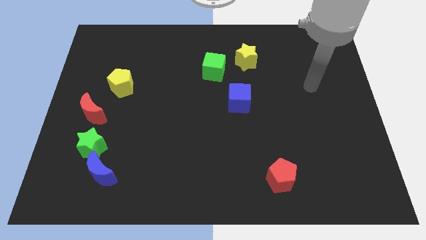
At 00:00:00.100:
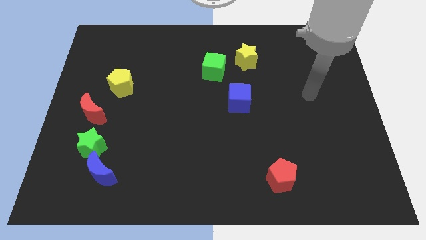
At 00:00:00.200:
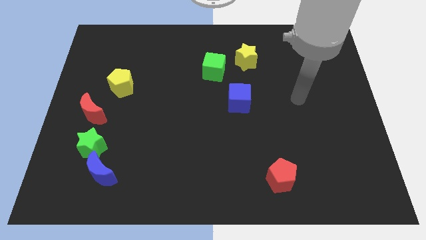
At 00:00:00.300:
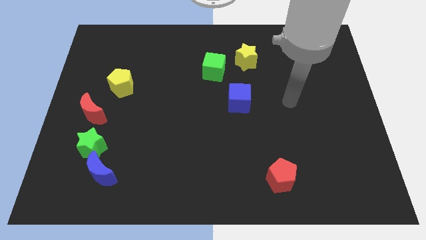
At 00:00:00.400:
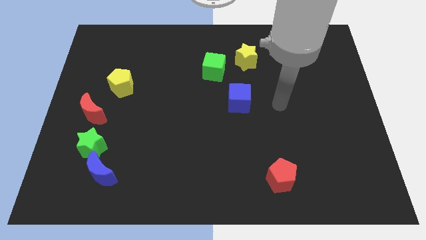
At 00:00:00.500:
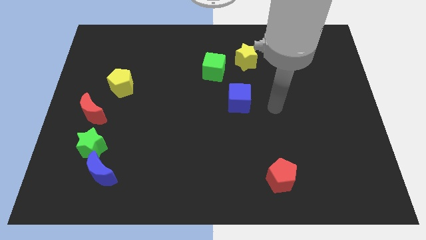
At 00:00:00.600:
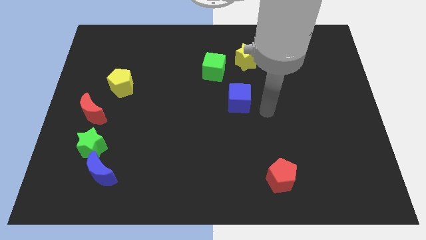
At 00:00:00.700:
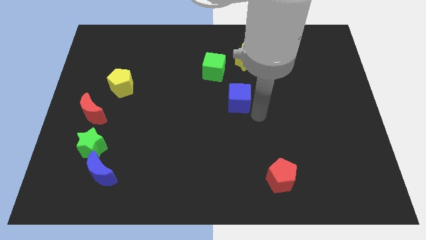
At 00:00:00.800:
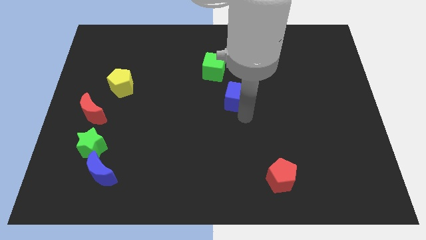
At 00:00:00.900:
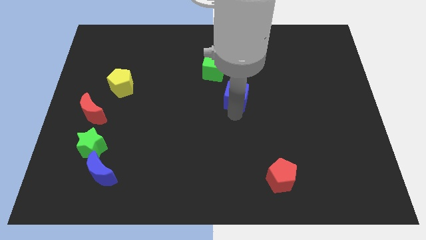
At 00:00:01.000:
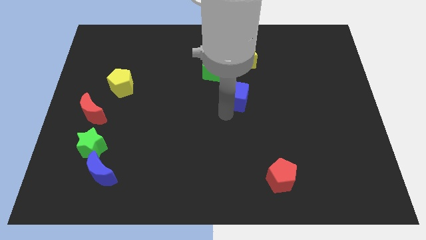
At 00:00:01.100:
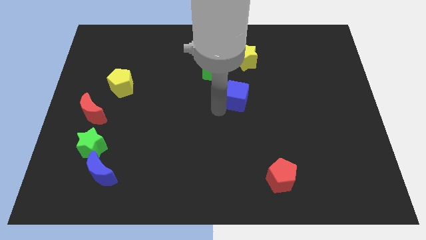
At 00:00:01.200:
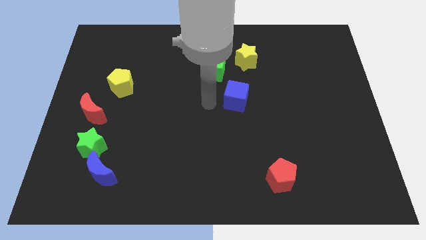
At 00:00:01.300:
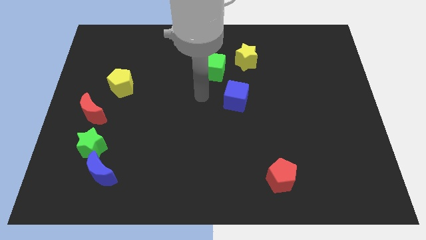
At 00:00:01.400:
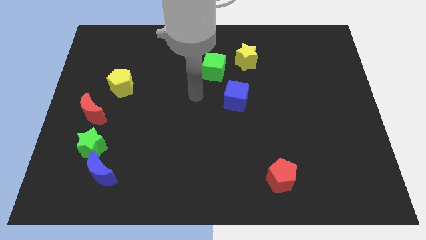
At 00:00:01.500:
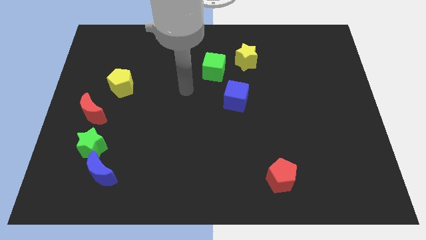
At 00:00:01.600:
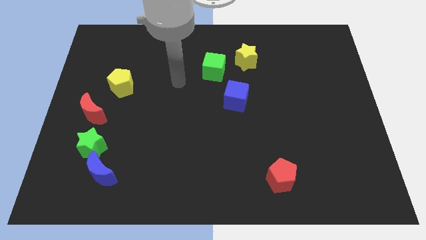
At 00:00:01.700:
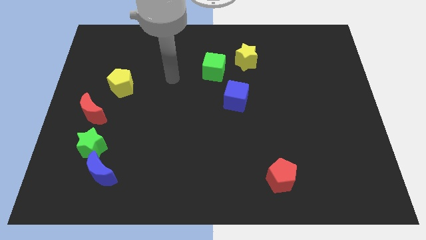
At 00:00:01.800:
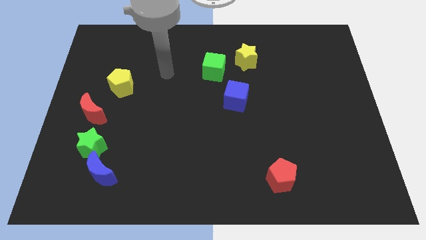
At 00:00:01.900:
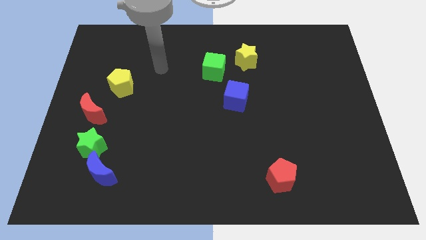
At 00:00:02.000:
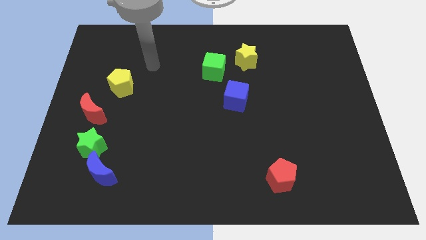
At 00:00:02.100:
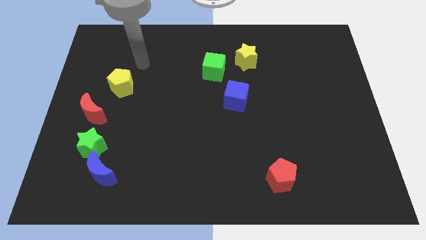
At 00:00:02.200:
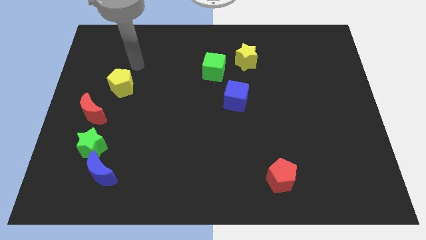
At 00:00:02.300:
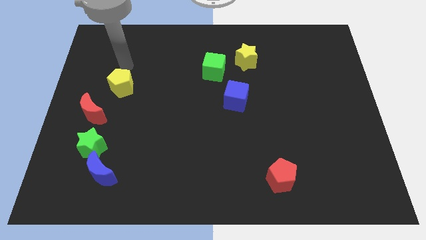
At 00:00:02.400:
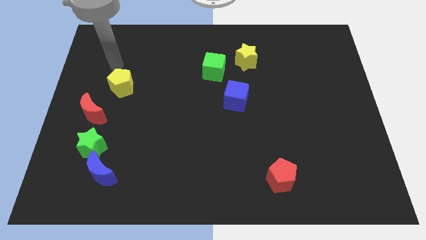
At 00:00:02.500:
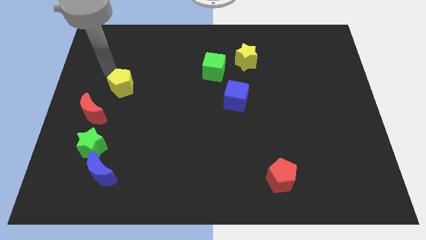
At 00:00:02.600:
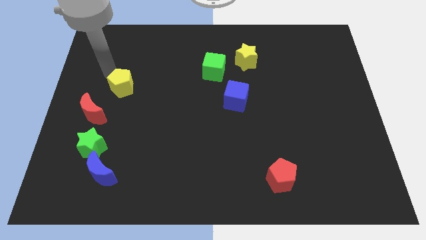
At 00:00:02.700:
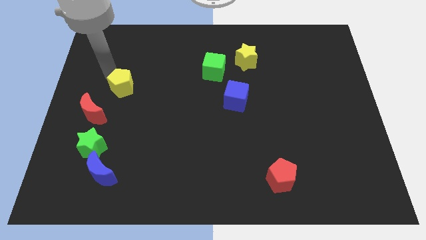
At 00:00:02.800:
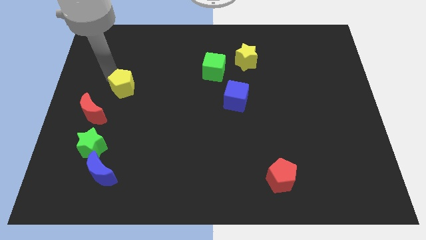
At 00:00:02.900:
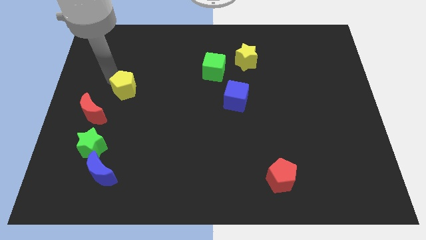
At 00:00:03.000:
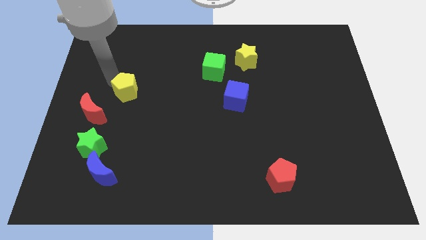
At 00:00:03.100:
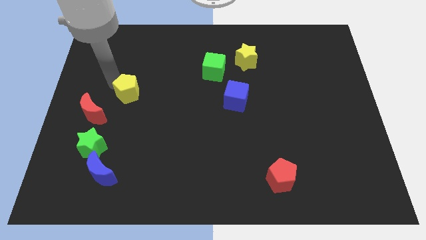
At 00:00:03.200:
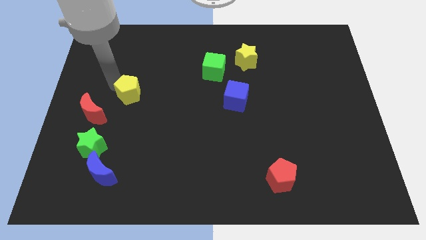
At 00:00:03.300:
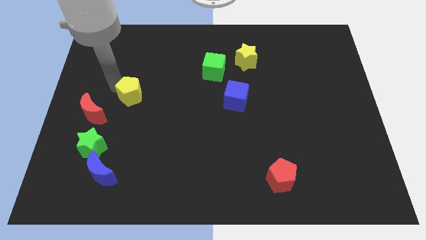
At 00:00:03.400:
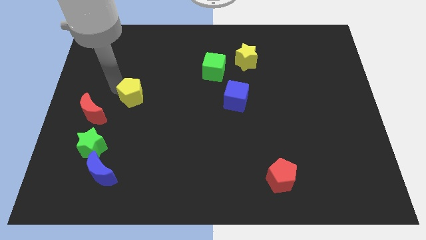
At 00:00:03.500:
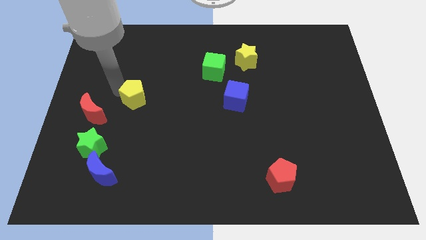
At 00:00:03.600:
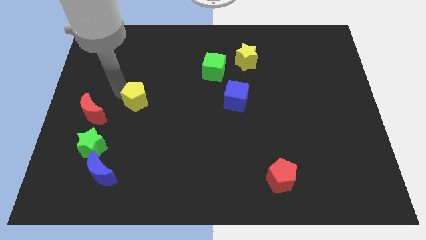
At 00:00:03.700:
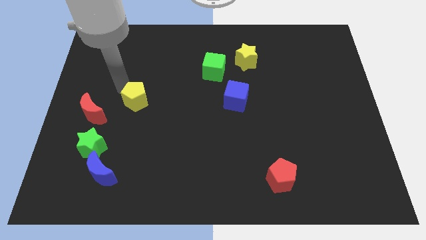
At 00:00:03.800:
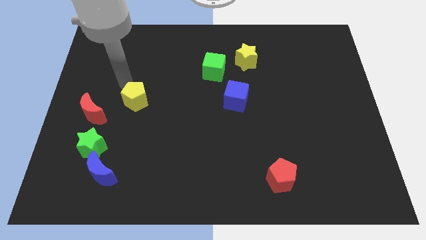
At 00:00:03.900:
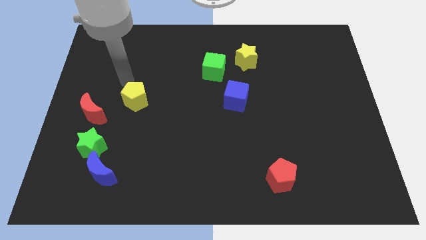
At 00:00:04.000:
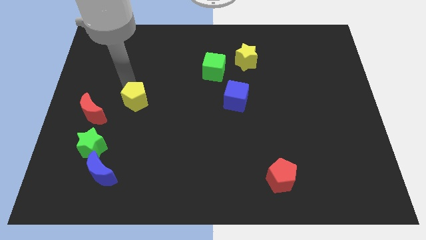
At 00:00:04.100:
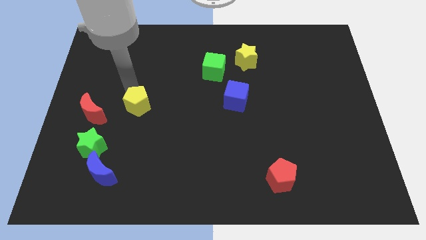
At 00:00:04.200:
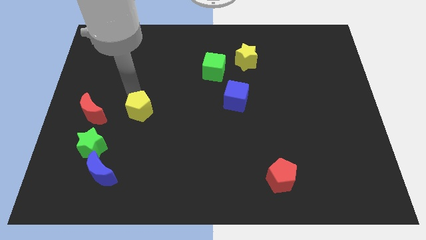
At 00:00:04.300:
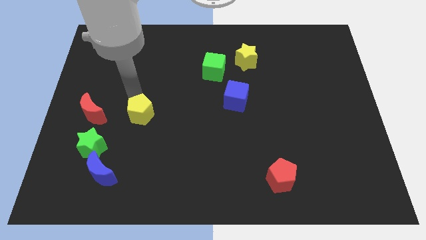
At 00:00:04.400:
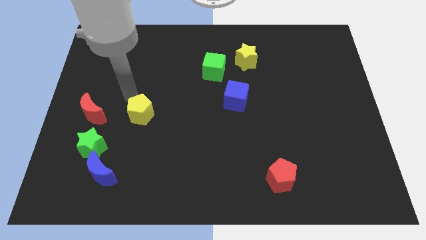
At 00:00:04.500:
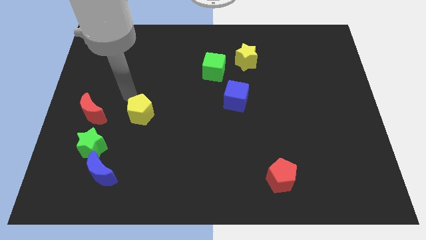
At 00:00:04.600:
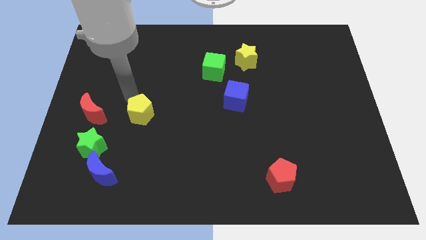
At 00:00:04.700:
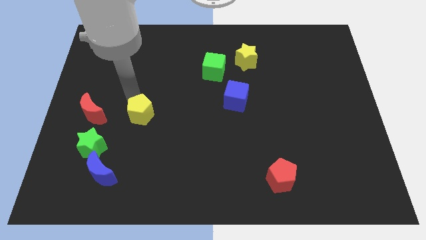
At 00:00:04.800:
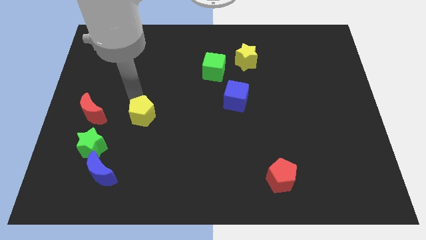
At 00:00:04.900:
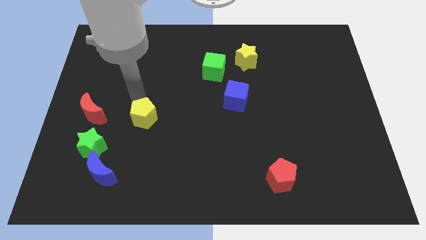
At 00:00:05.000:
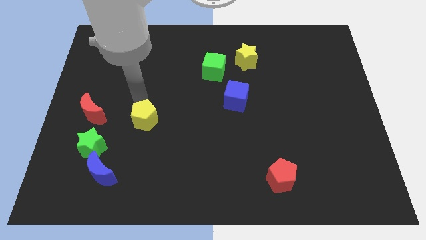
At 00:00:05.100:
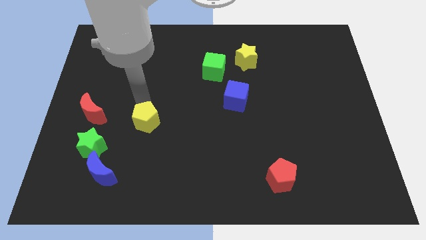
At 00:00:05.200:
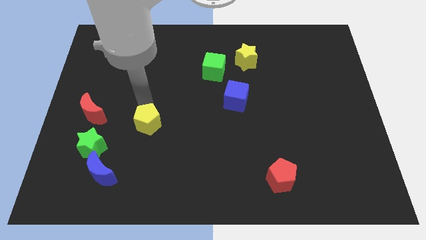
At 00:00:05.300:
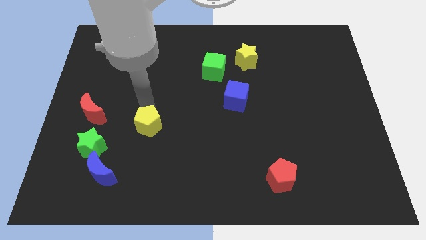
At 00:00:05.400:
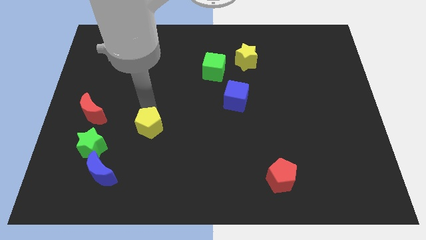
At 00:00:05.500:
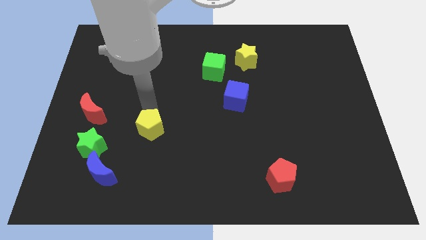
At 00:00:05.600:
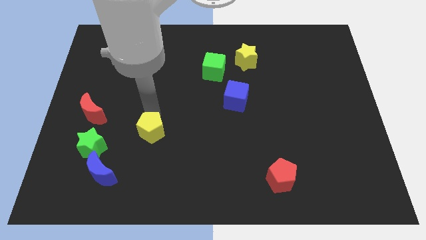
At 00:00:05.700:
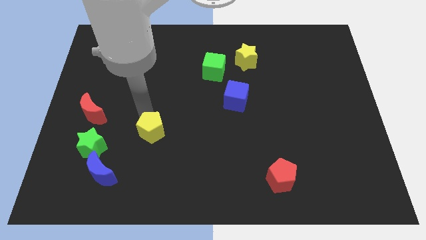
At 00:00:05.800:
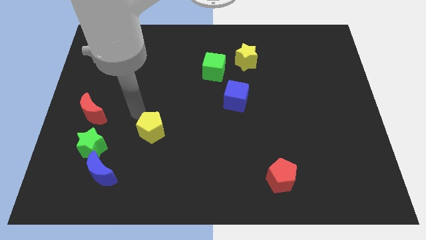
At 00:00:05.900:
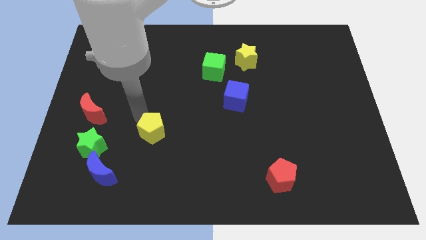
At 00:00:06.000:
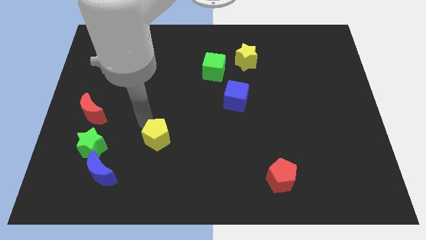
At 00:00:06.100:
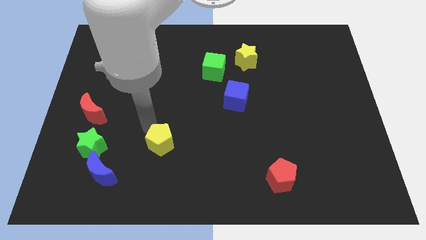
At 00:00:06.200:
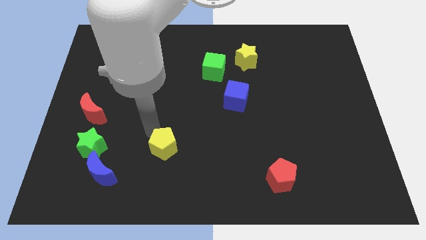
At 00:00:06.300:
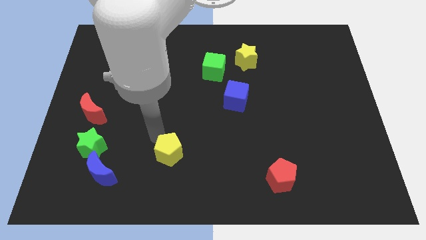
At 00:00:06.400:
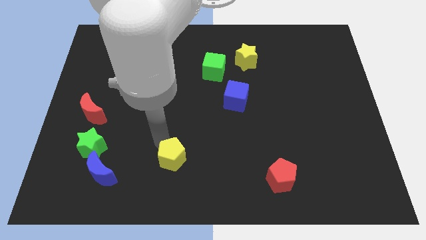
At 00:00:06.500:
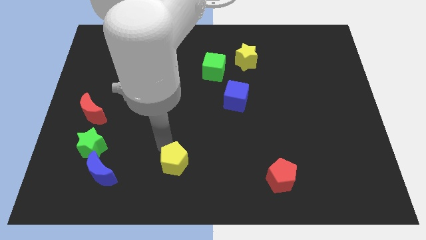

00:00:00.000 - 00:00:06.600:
push the yellow pentagon to the bottom side

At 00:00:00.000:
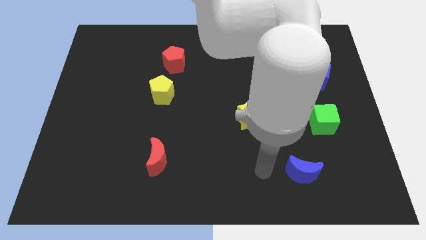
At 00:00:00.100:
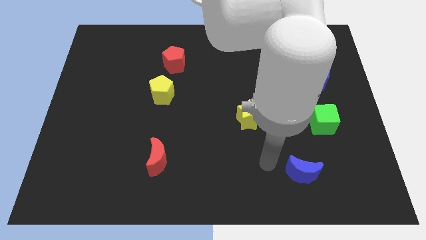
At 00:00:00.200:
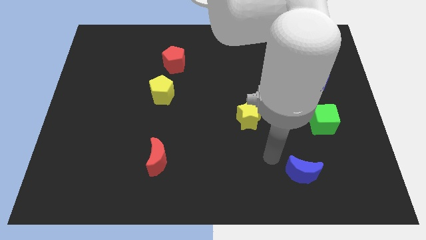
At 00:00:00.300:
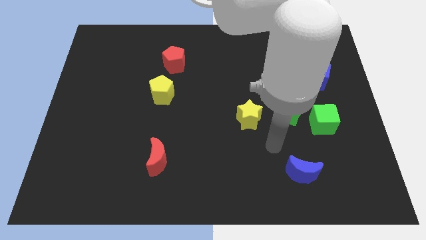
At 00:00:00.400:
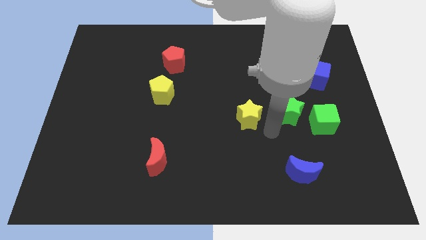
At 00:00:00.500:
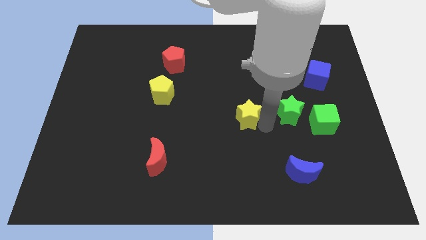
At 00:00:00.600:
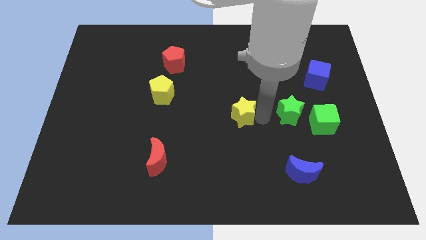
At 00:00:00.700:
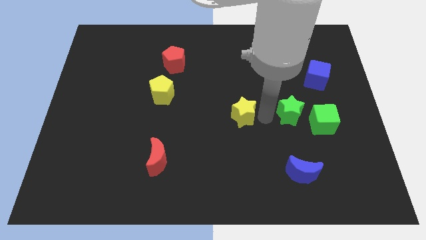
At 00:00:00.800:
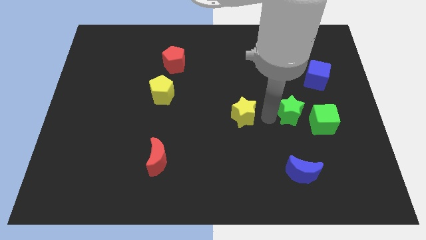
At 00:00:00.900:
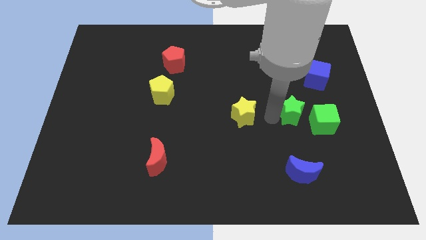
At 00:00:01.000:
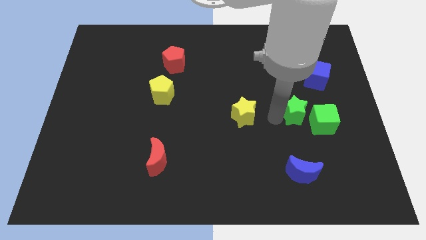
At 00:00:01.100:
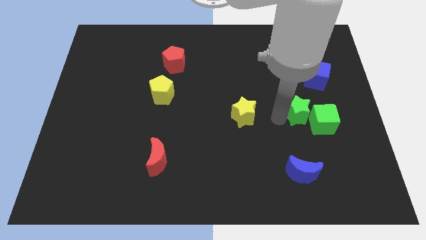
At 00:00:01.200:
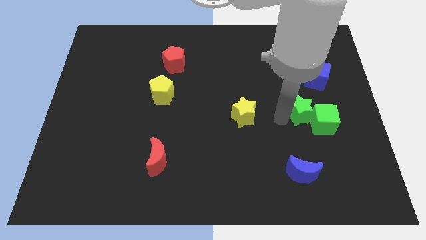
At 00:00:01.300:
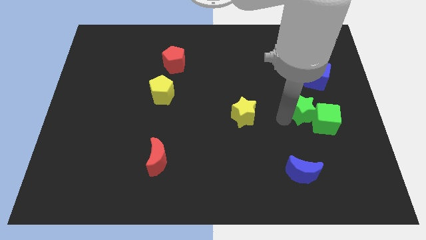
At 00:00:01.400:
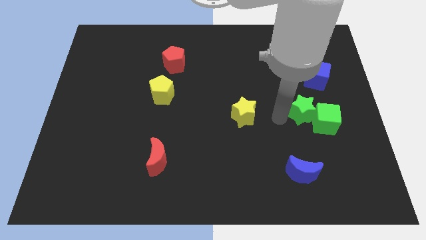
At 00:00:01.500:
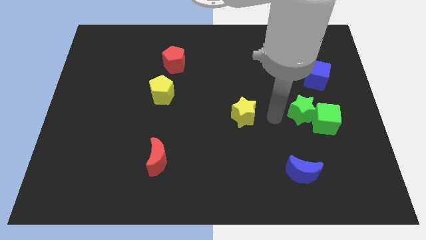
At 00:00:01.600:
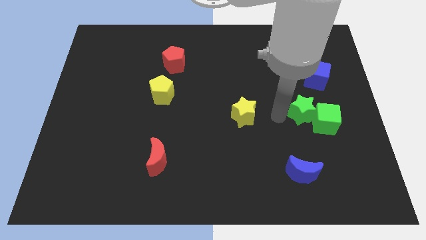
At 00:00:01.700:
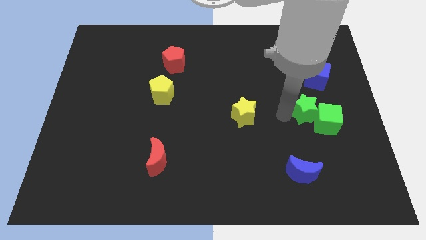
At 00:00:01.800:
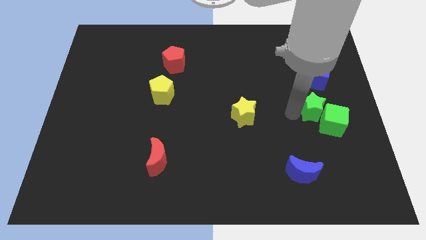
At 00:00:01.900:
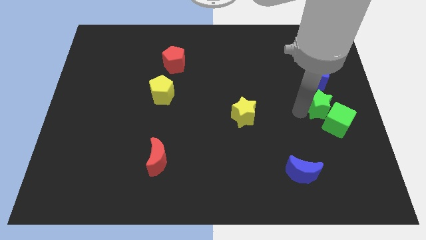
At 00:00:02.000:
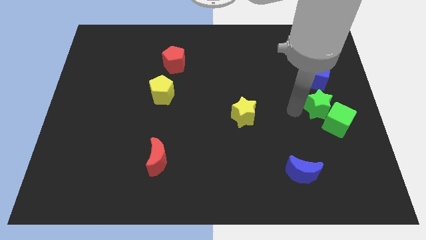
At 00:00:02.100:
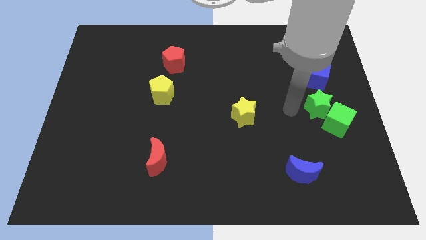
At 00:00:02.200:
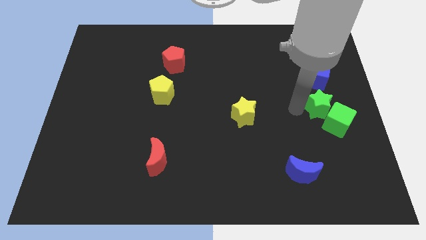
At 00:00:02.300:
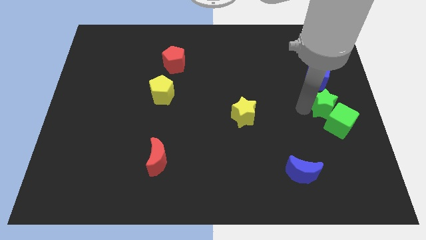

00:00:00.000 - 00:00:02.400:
push the green star to the center right
